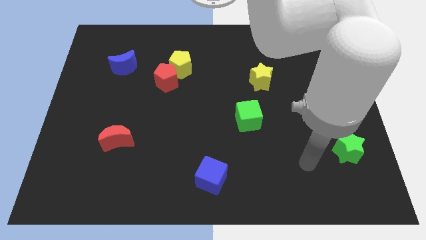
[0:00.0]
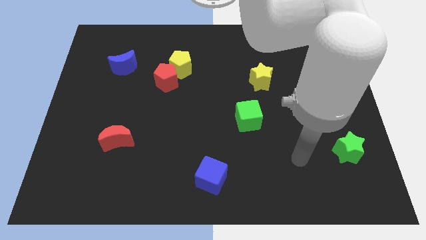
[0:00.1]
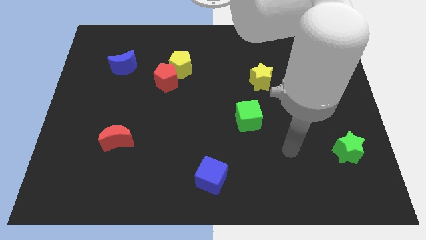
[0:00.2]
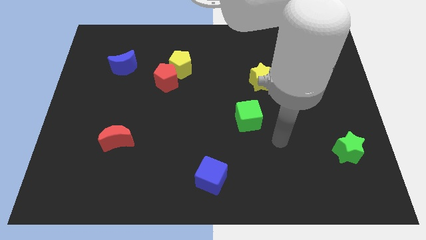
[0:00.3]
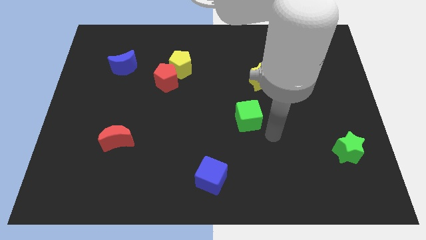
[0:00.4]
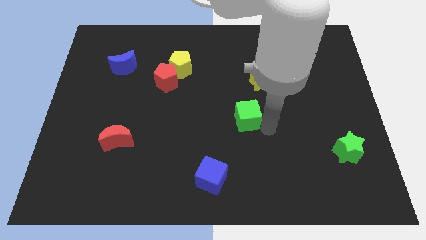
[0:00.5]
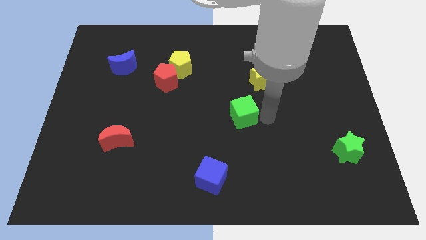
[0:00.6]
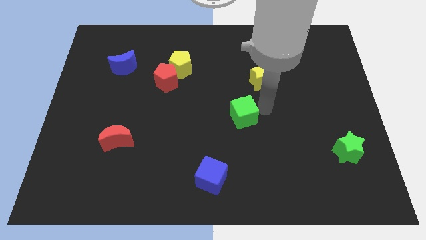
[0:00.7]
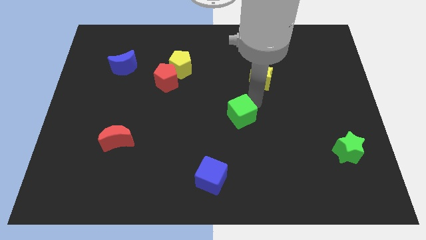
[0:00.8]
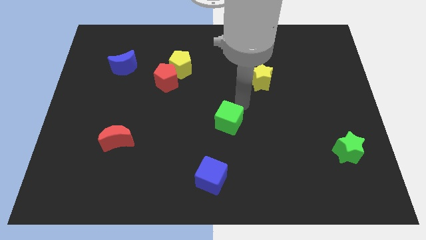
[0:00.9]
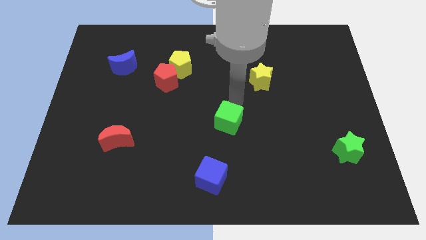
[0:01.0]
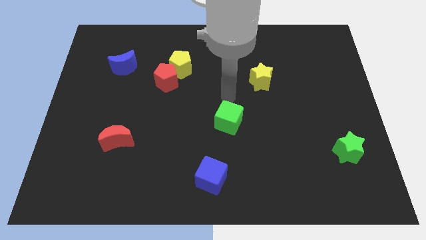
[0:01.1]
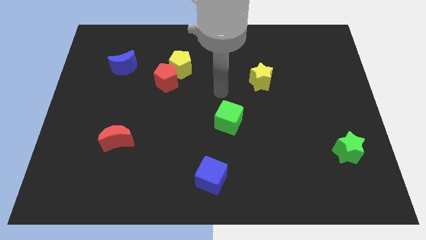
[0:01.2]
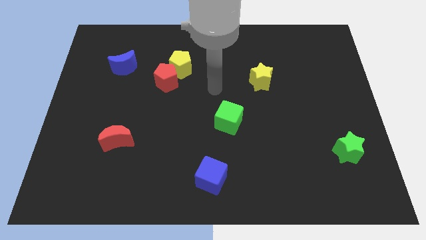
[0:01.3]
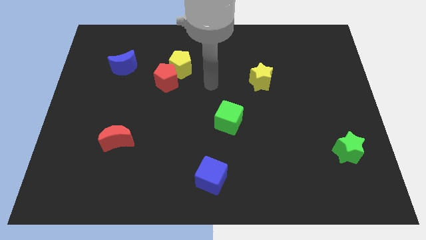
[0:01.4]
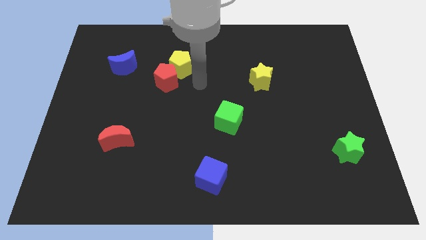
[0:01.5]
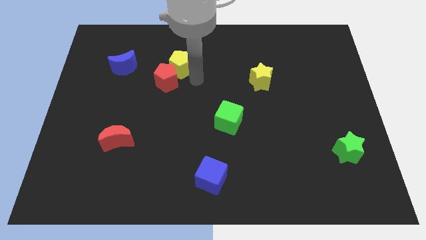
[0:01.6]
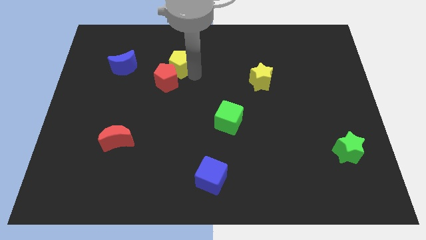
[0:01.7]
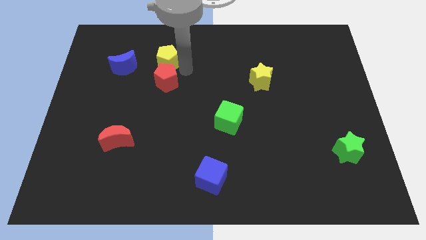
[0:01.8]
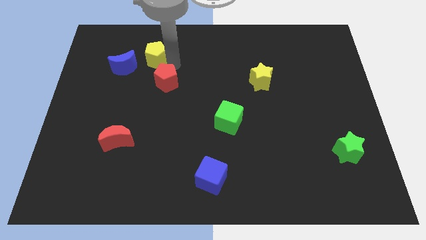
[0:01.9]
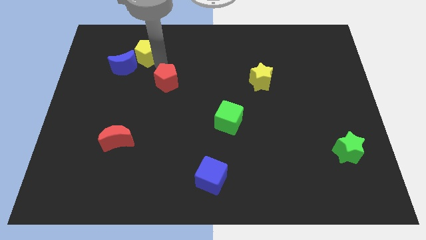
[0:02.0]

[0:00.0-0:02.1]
pull the red pentagon apart from the yellow pentagon

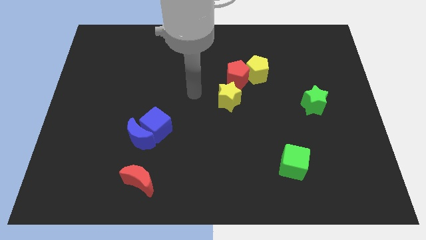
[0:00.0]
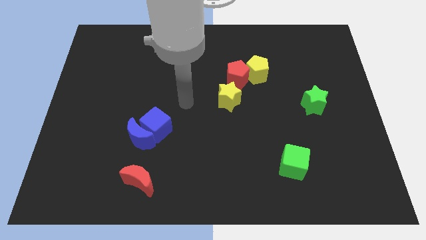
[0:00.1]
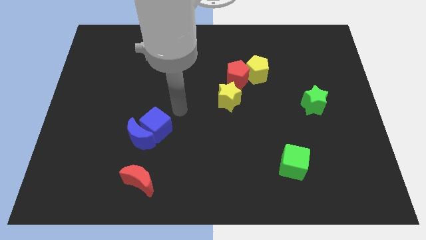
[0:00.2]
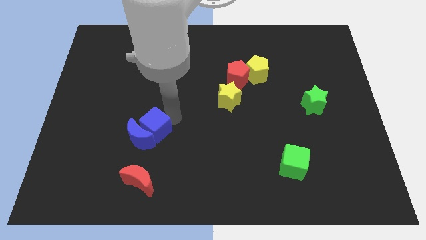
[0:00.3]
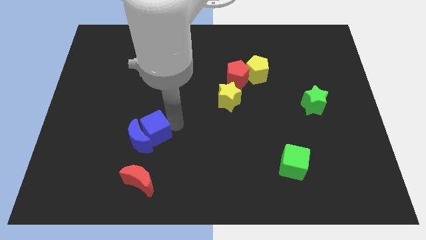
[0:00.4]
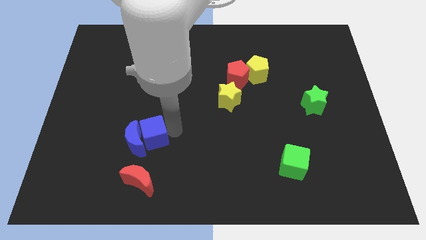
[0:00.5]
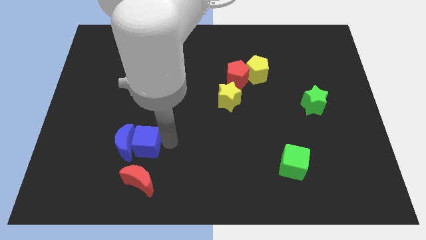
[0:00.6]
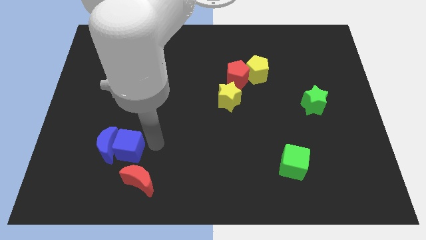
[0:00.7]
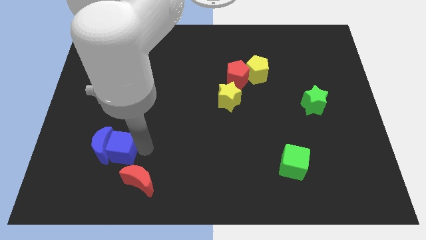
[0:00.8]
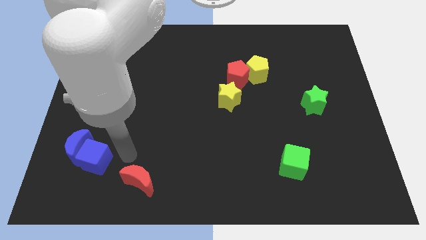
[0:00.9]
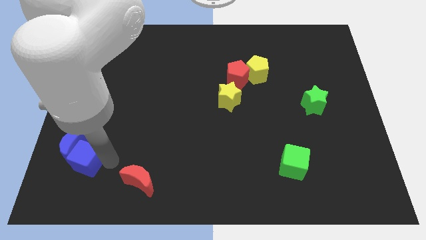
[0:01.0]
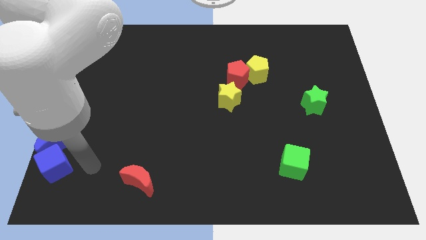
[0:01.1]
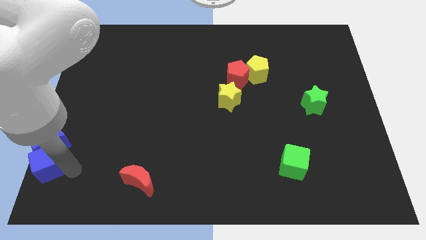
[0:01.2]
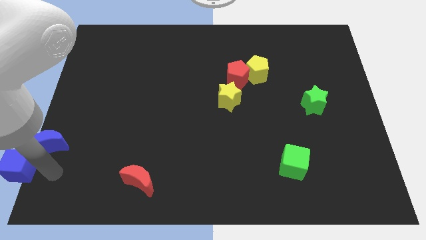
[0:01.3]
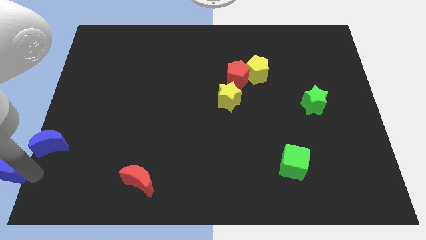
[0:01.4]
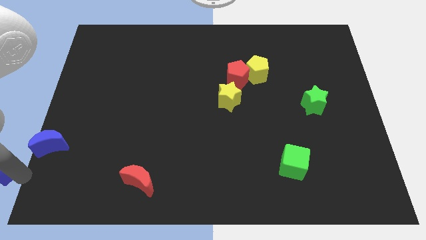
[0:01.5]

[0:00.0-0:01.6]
pull the blue cube apart from the blue moon

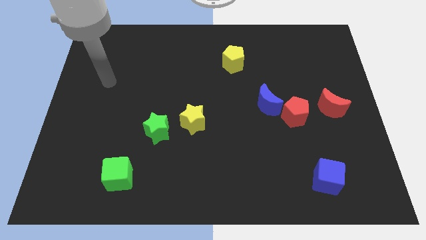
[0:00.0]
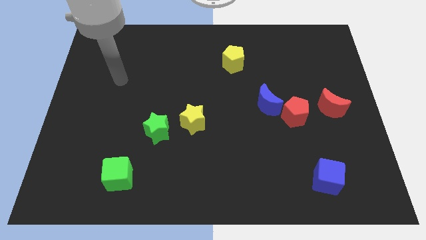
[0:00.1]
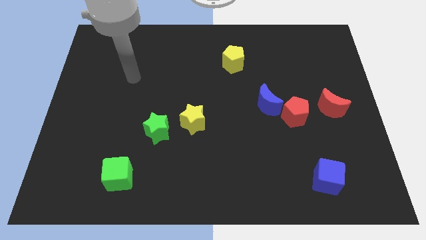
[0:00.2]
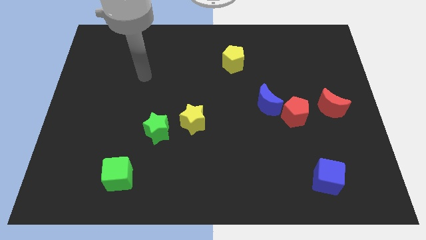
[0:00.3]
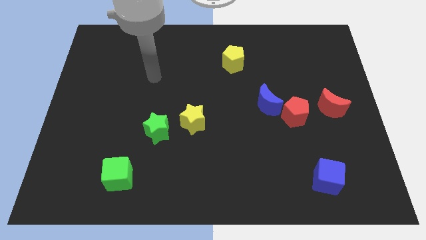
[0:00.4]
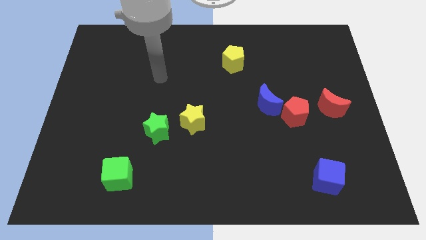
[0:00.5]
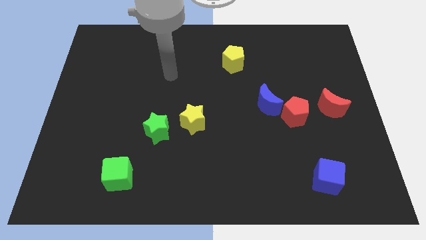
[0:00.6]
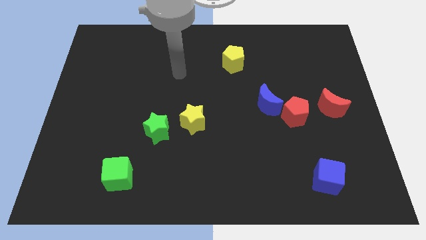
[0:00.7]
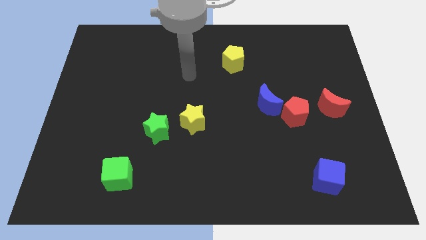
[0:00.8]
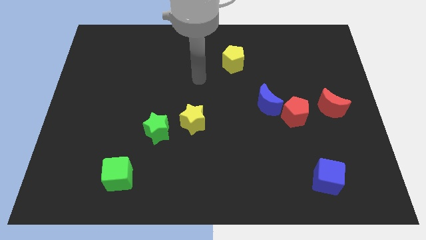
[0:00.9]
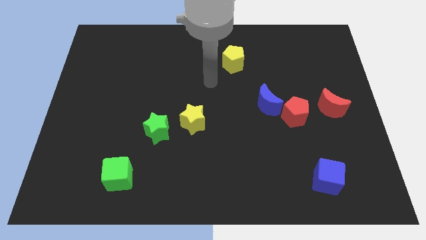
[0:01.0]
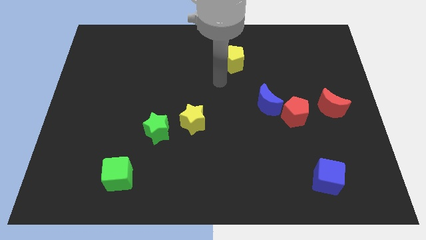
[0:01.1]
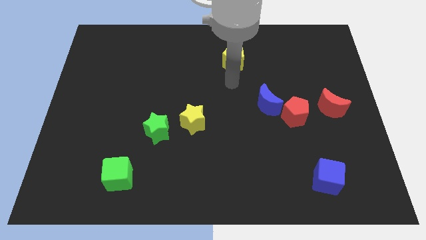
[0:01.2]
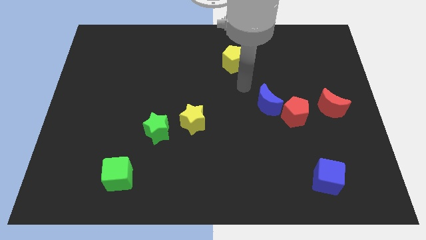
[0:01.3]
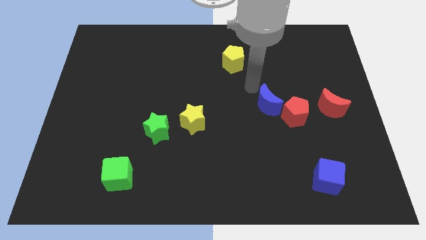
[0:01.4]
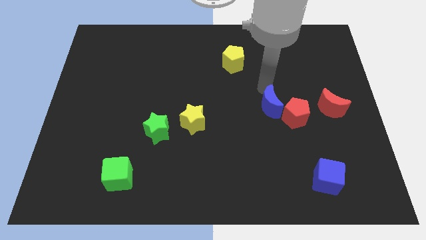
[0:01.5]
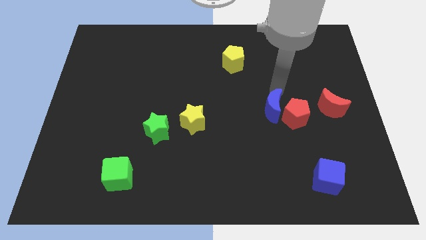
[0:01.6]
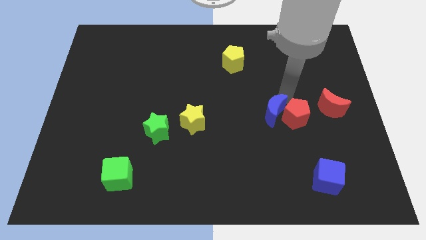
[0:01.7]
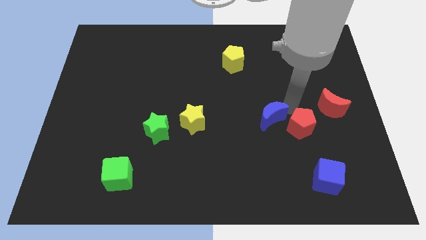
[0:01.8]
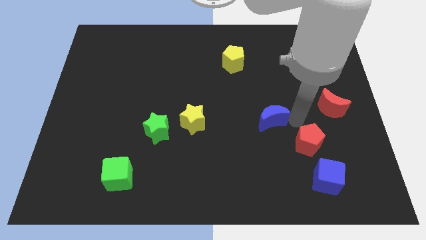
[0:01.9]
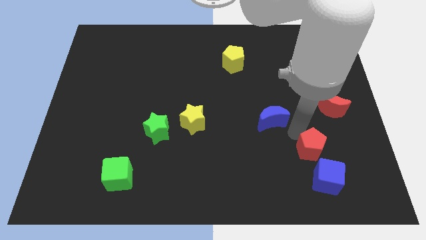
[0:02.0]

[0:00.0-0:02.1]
separate the blue moon from the red pentagon

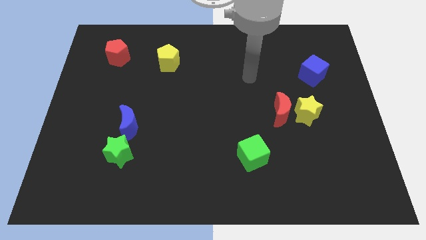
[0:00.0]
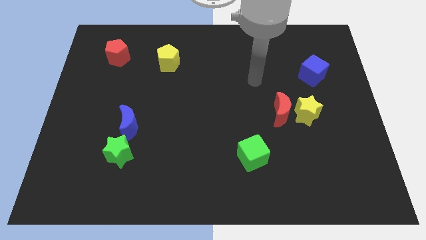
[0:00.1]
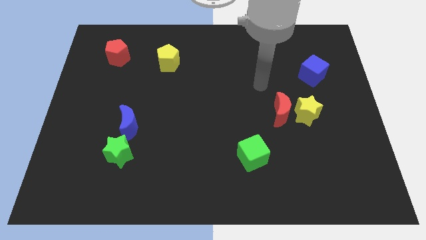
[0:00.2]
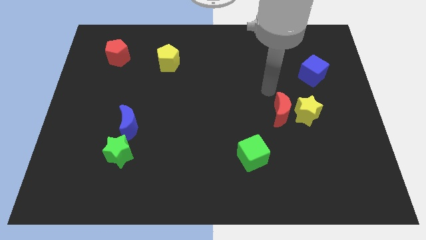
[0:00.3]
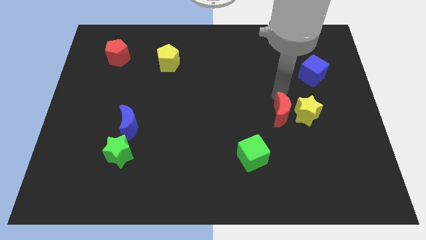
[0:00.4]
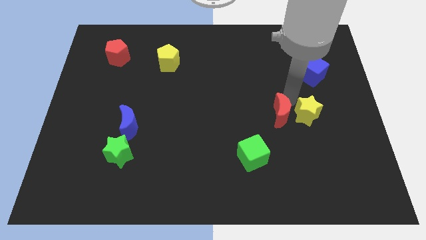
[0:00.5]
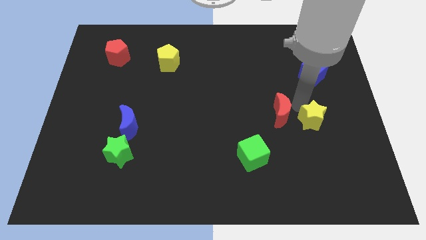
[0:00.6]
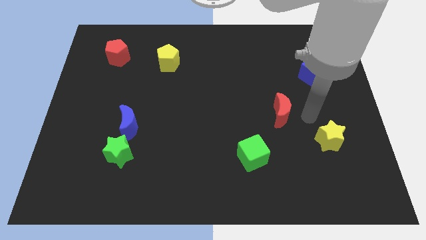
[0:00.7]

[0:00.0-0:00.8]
separate the red moon from the yellow star

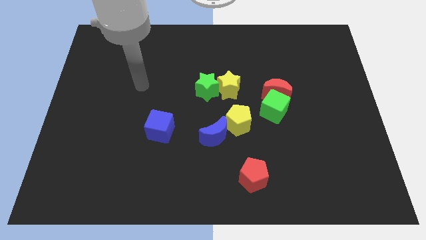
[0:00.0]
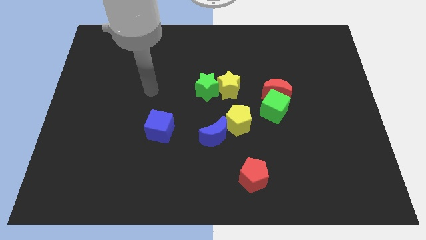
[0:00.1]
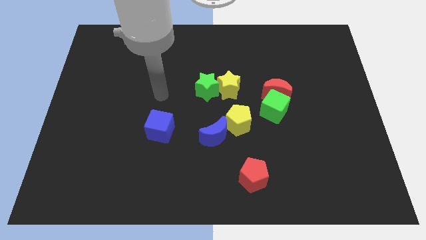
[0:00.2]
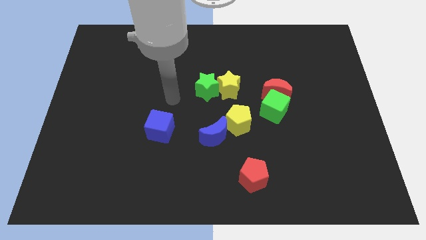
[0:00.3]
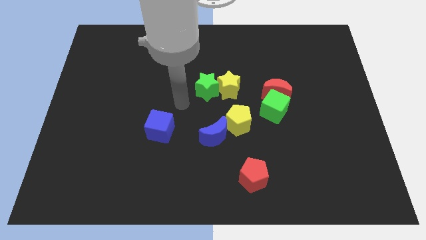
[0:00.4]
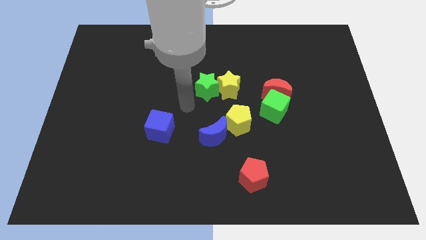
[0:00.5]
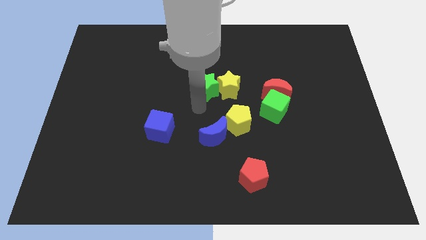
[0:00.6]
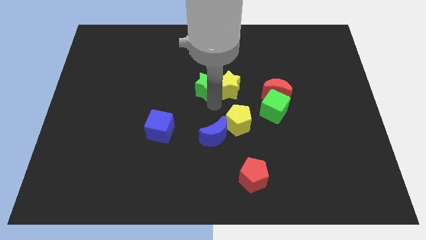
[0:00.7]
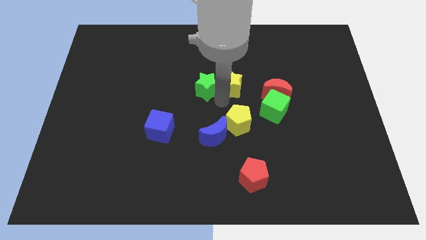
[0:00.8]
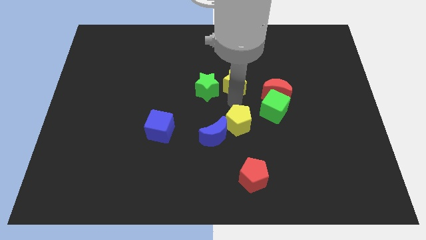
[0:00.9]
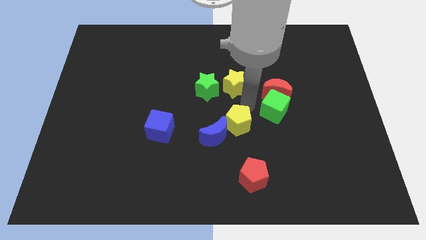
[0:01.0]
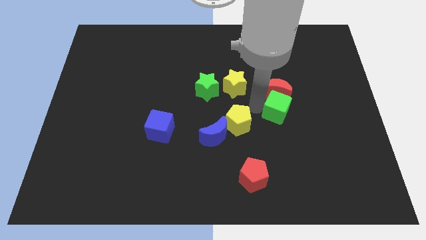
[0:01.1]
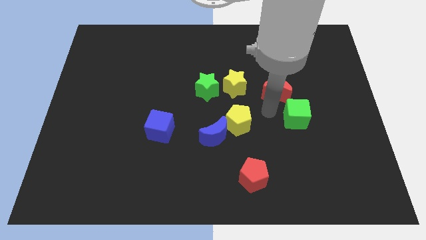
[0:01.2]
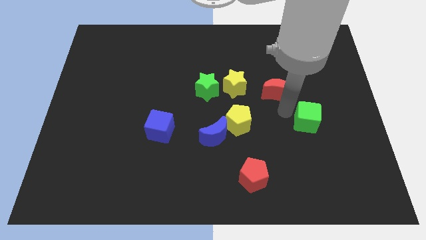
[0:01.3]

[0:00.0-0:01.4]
separate the red moon from the green cube

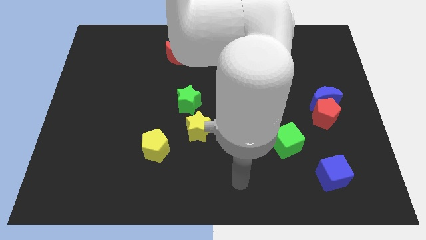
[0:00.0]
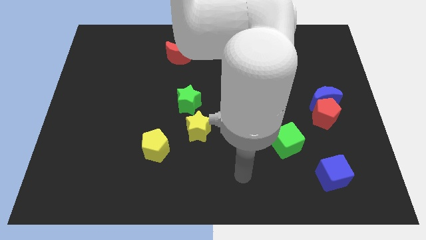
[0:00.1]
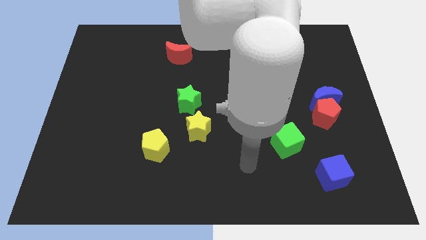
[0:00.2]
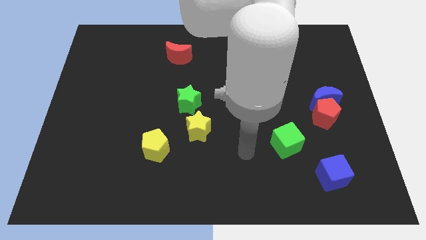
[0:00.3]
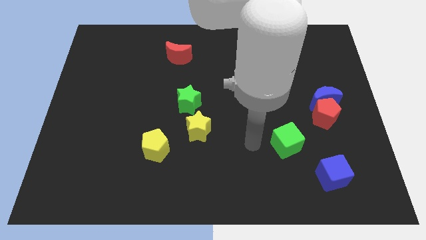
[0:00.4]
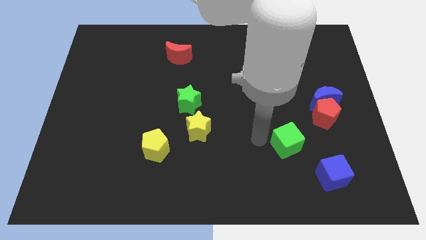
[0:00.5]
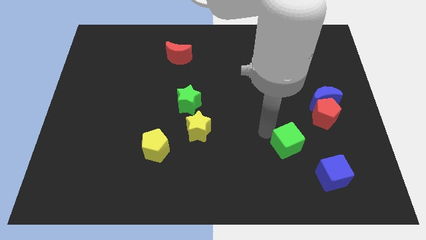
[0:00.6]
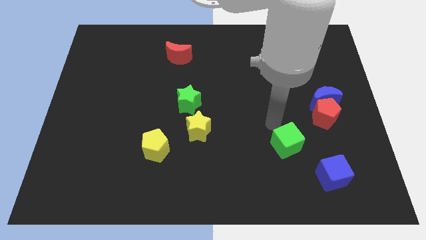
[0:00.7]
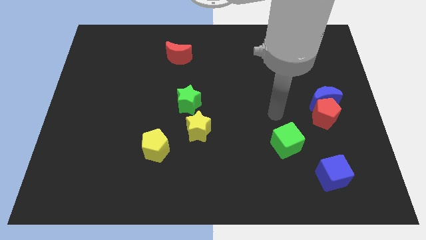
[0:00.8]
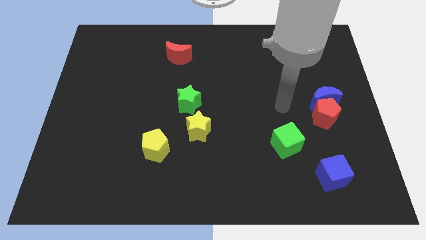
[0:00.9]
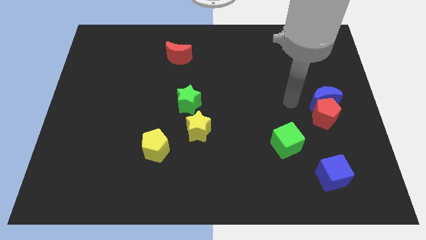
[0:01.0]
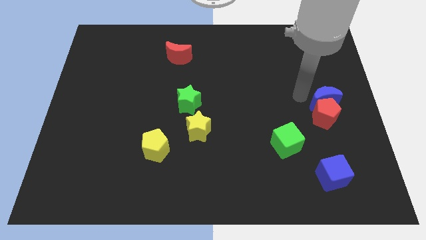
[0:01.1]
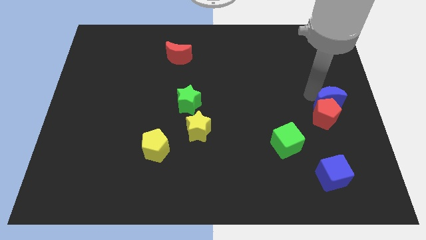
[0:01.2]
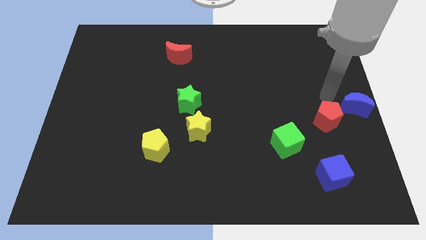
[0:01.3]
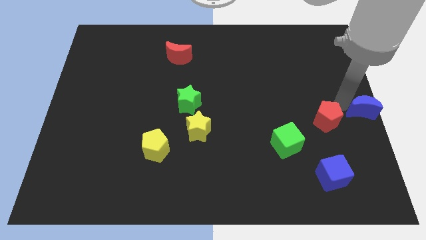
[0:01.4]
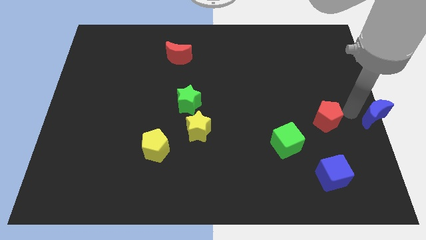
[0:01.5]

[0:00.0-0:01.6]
pull the red pentagon apart from the blue moon
